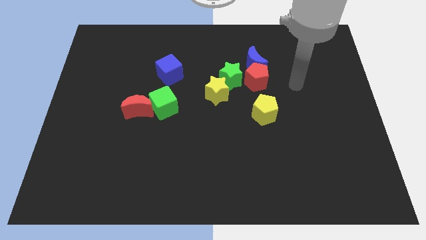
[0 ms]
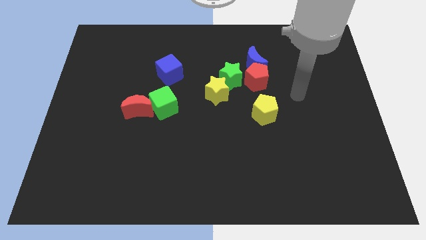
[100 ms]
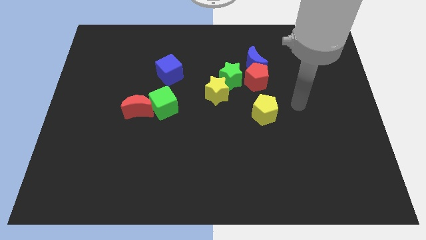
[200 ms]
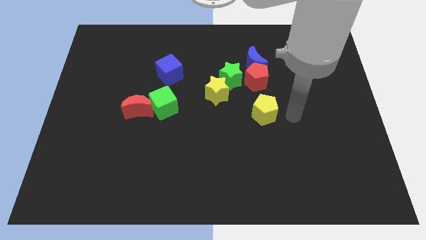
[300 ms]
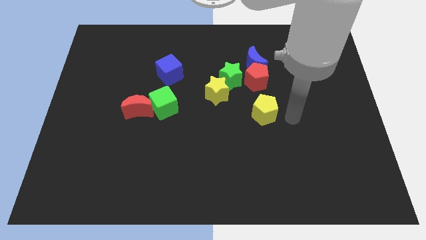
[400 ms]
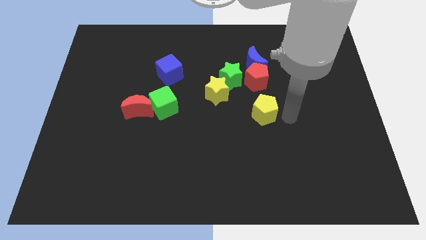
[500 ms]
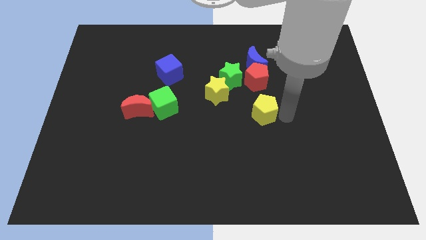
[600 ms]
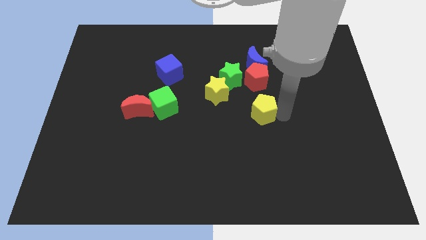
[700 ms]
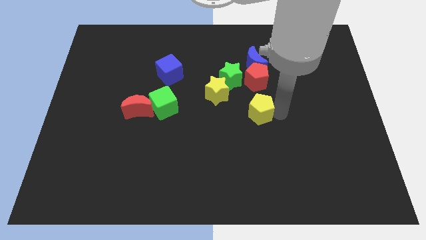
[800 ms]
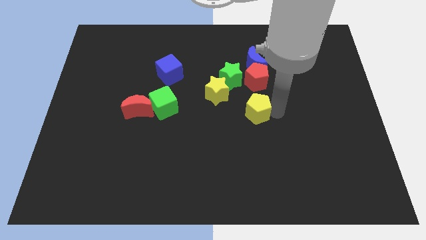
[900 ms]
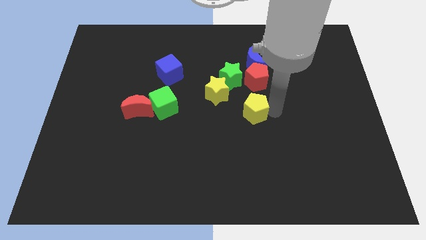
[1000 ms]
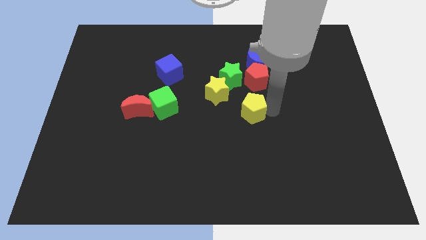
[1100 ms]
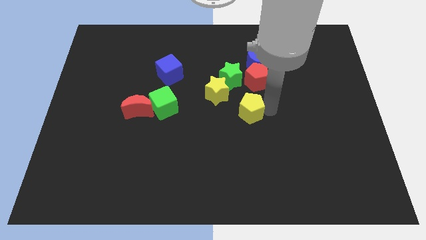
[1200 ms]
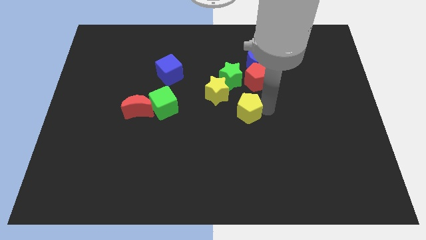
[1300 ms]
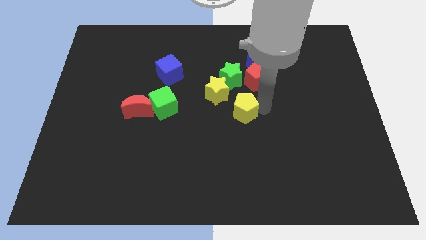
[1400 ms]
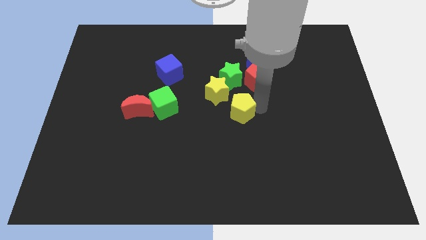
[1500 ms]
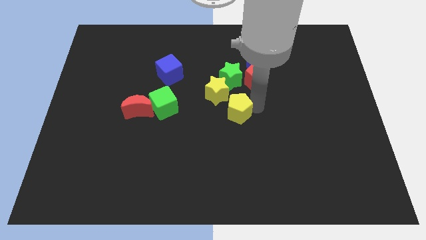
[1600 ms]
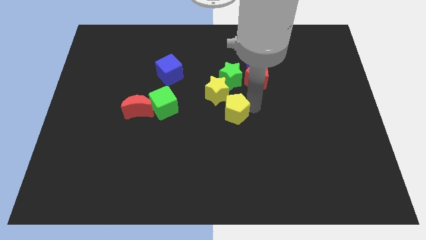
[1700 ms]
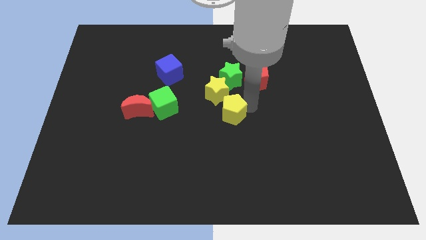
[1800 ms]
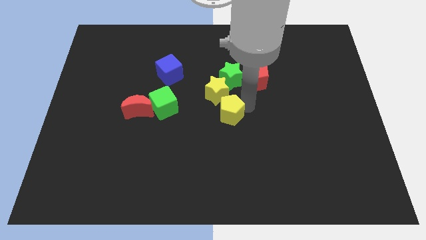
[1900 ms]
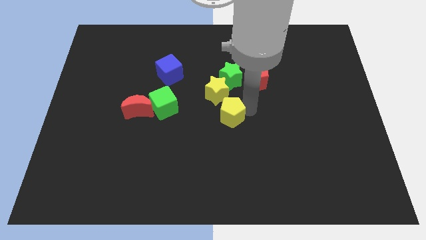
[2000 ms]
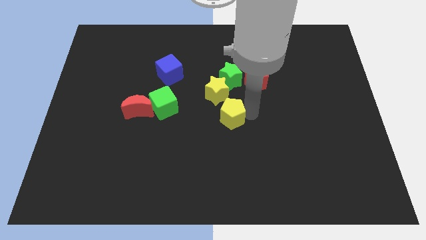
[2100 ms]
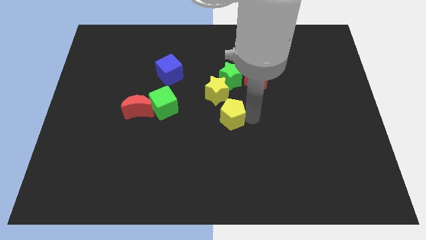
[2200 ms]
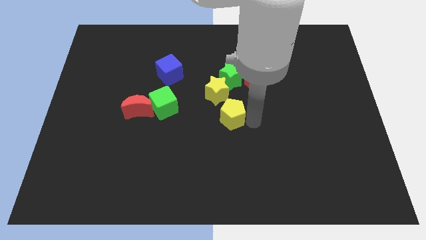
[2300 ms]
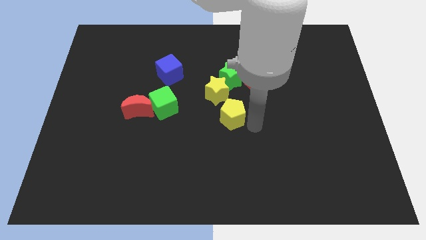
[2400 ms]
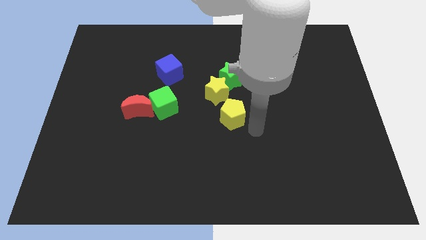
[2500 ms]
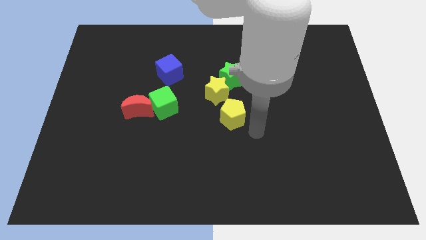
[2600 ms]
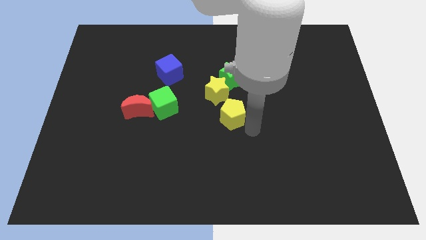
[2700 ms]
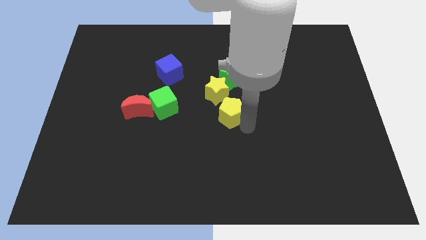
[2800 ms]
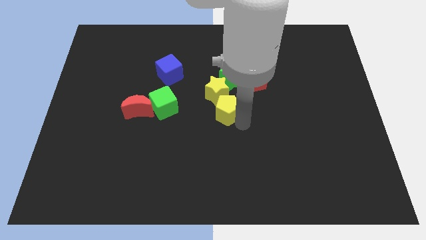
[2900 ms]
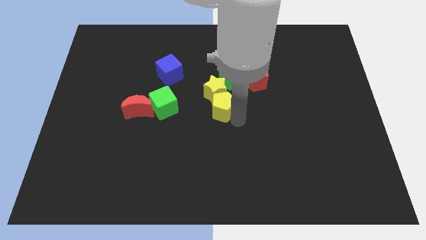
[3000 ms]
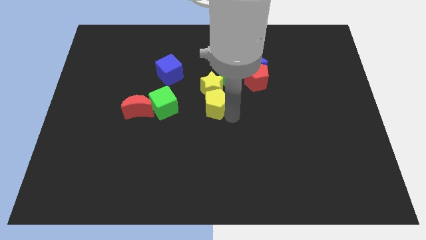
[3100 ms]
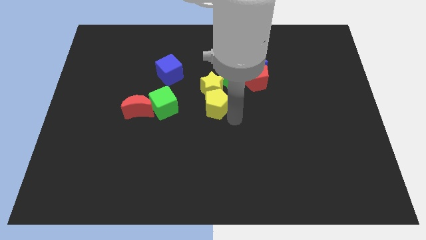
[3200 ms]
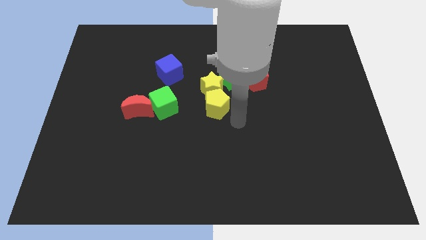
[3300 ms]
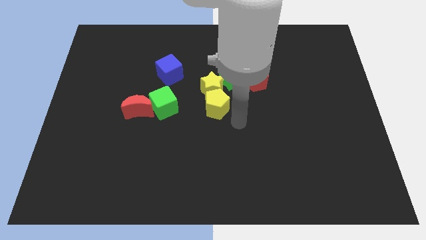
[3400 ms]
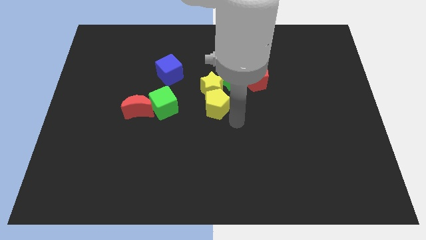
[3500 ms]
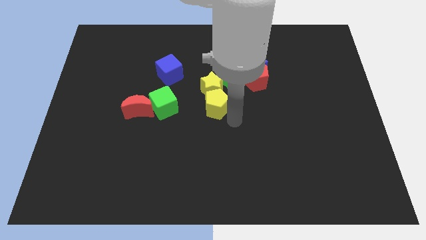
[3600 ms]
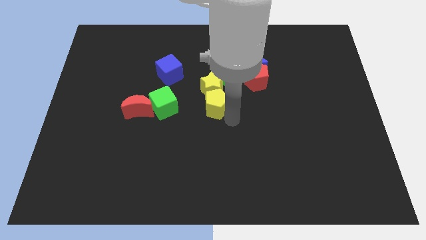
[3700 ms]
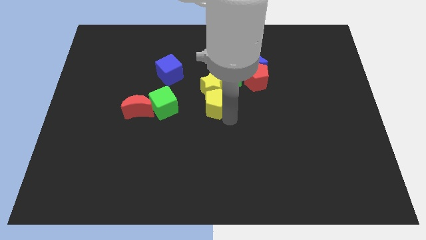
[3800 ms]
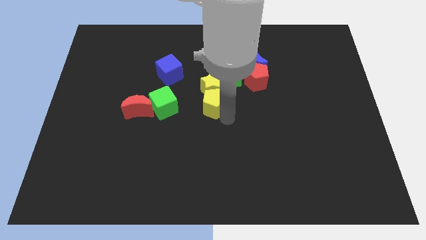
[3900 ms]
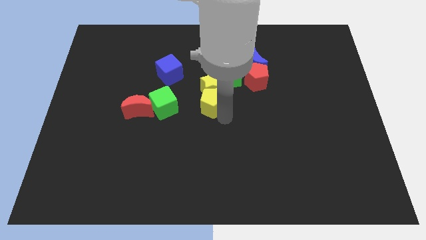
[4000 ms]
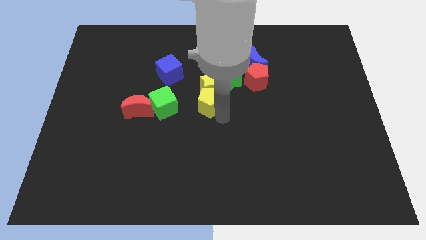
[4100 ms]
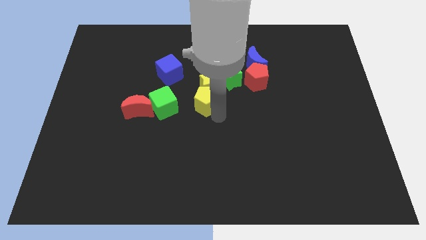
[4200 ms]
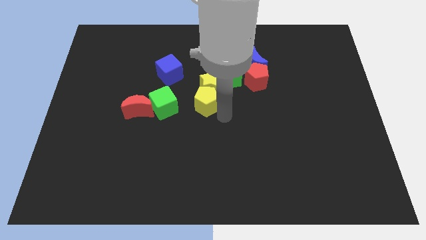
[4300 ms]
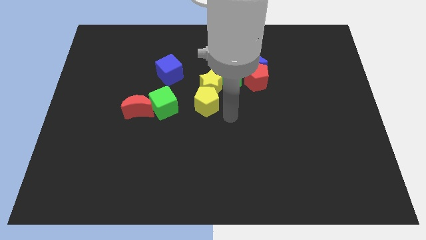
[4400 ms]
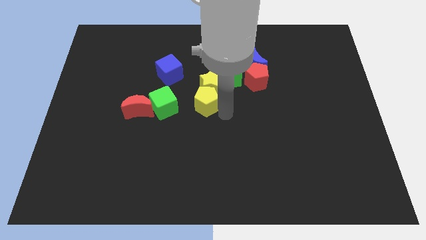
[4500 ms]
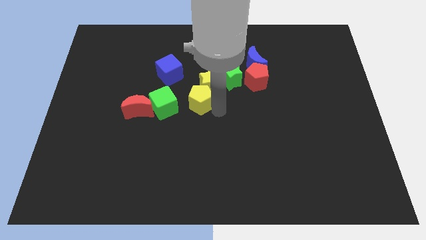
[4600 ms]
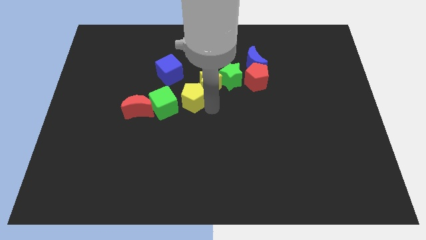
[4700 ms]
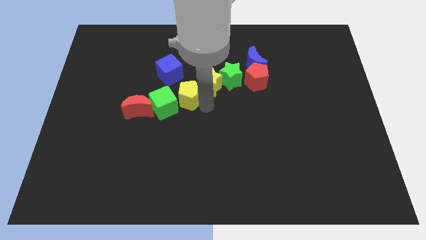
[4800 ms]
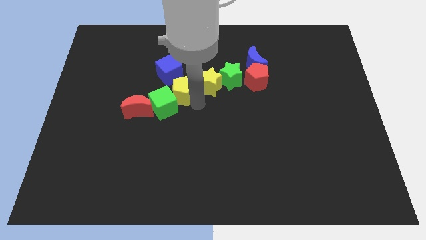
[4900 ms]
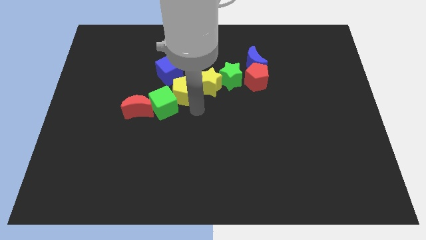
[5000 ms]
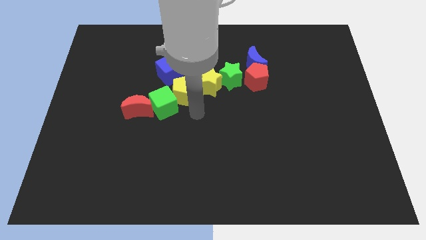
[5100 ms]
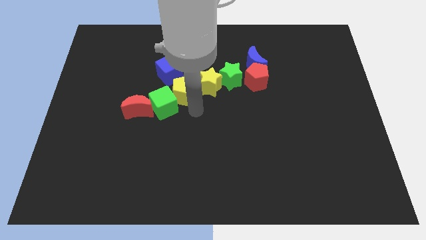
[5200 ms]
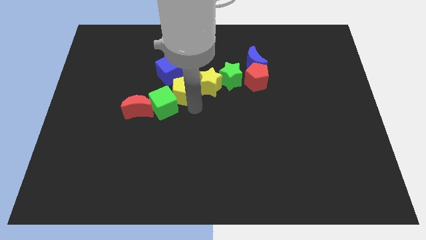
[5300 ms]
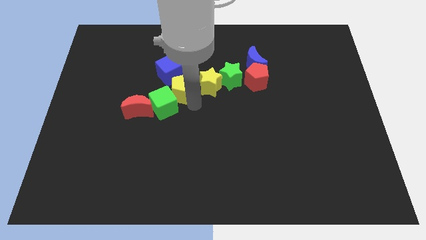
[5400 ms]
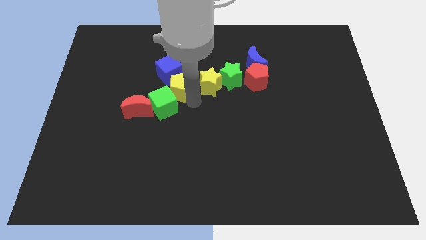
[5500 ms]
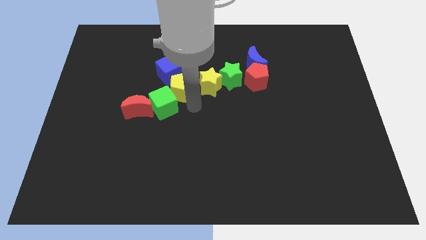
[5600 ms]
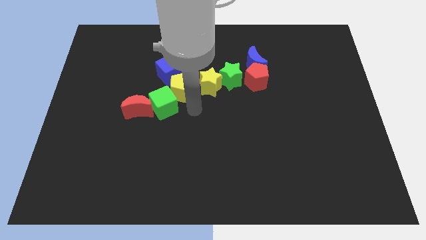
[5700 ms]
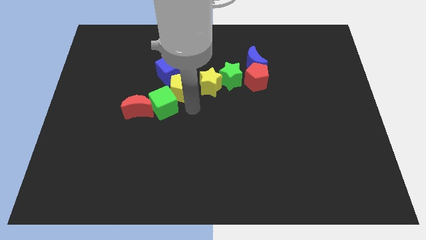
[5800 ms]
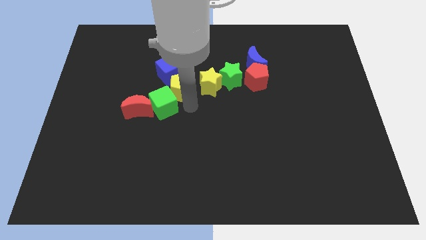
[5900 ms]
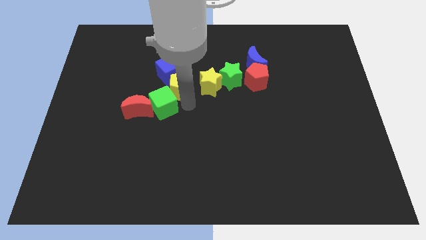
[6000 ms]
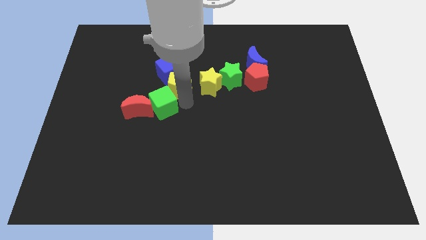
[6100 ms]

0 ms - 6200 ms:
push the yellow pentagon towards the blue cube

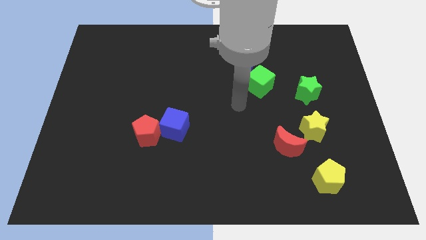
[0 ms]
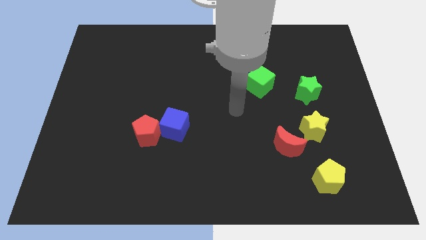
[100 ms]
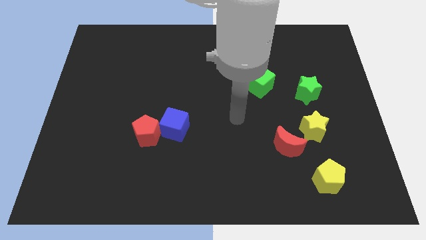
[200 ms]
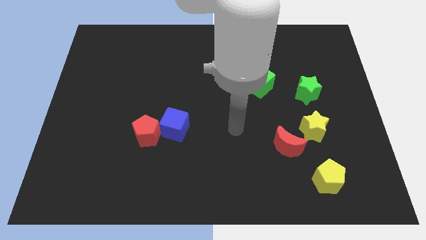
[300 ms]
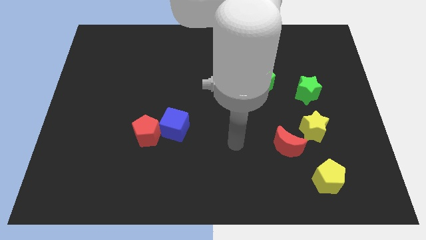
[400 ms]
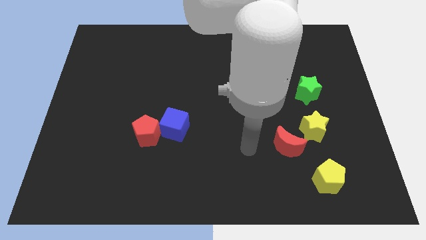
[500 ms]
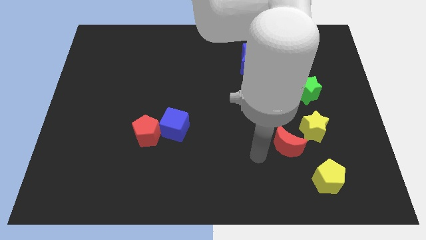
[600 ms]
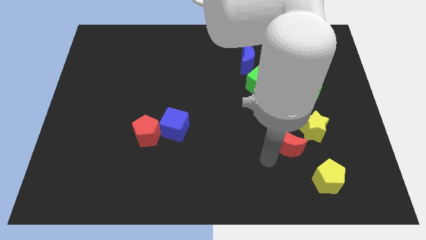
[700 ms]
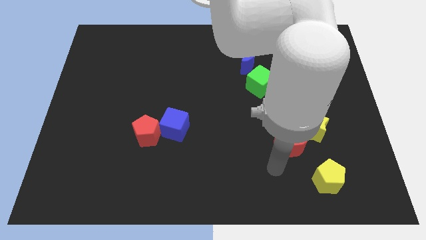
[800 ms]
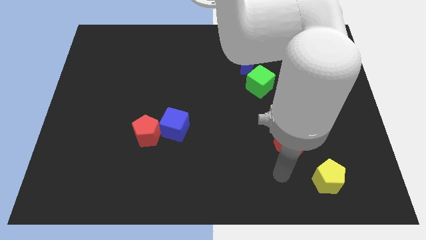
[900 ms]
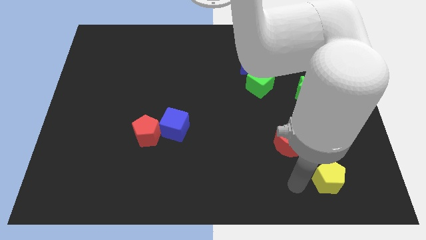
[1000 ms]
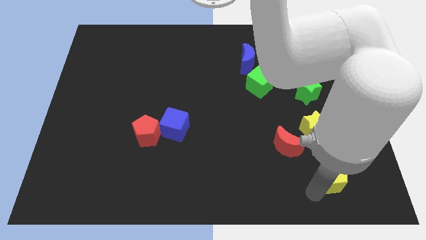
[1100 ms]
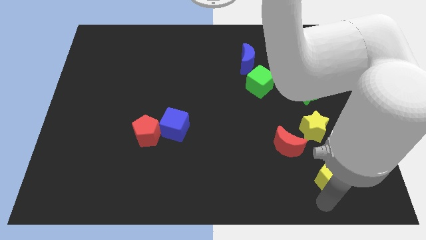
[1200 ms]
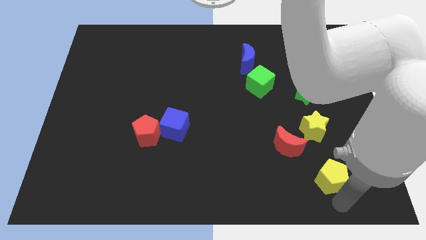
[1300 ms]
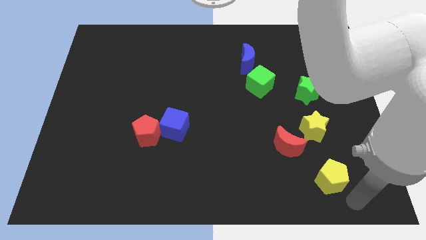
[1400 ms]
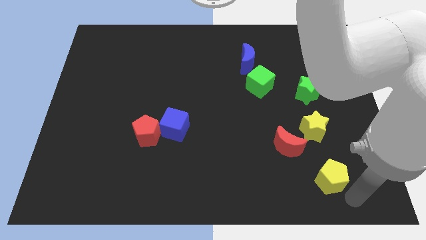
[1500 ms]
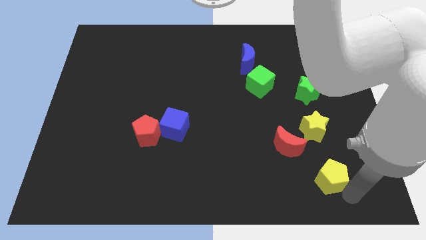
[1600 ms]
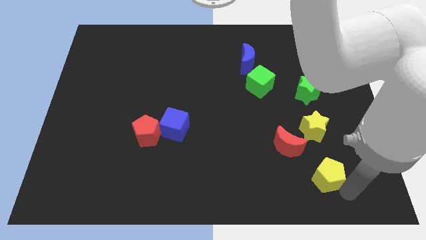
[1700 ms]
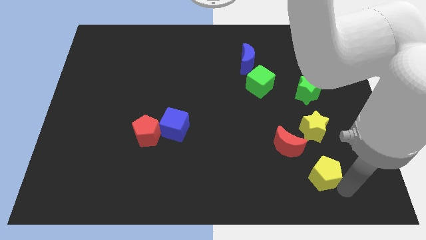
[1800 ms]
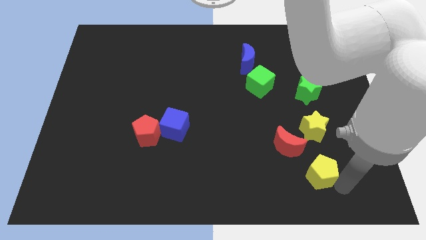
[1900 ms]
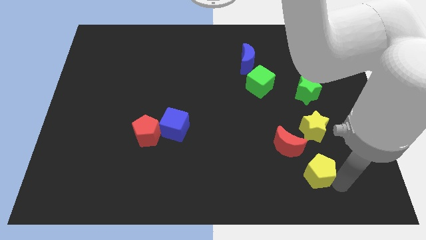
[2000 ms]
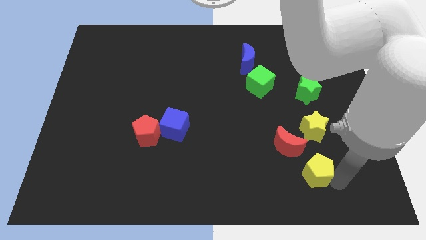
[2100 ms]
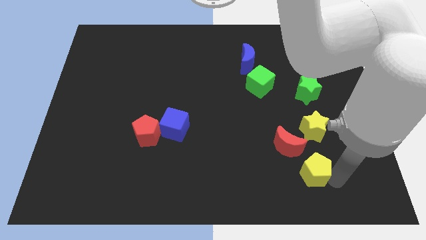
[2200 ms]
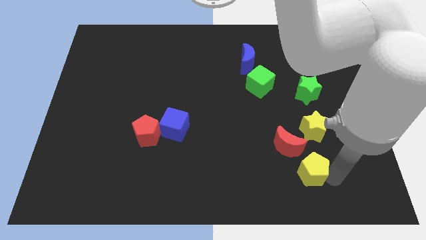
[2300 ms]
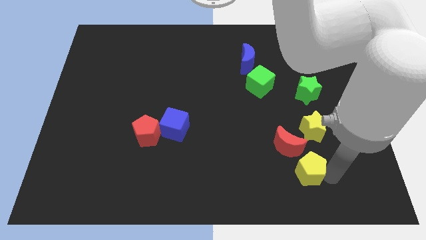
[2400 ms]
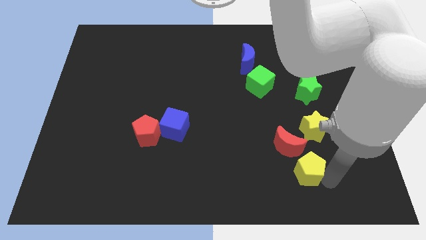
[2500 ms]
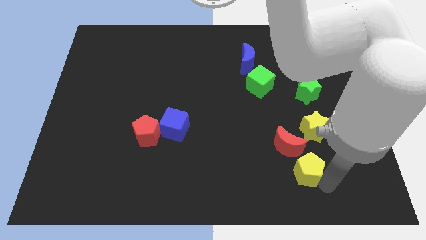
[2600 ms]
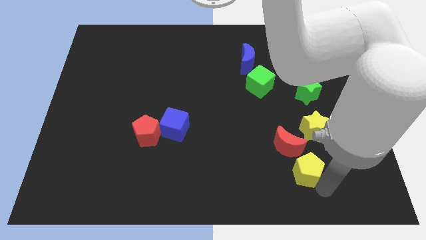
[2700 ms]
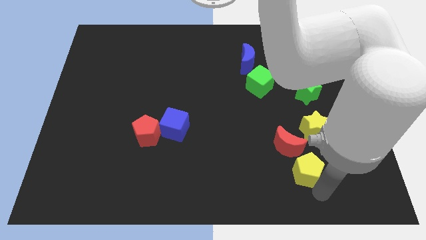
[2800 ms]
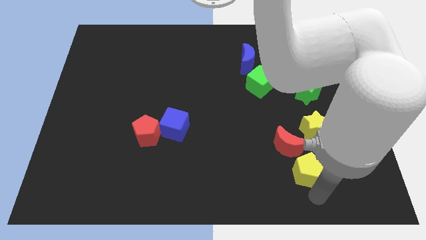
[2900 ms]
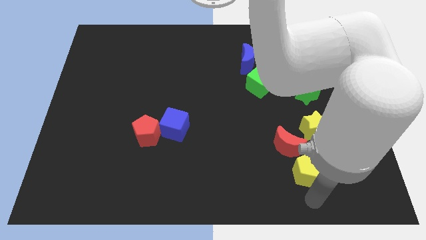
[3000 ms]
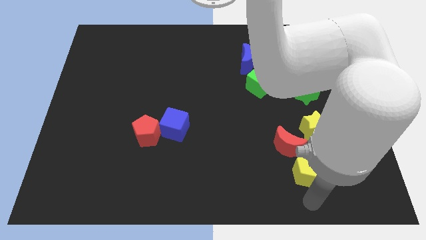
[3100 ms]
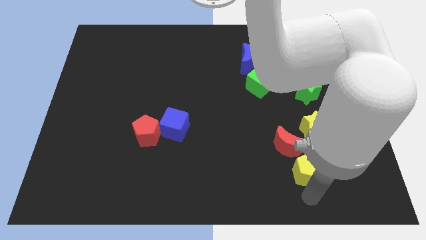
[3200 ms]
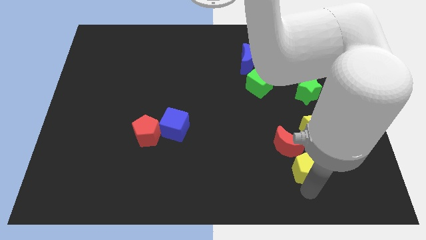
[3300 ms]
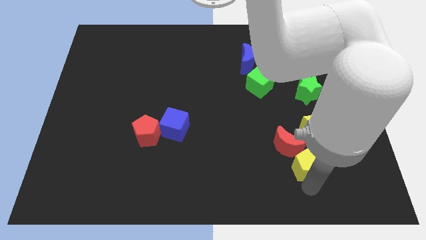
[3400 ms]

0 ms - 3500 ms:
put the yellow pentagon towards the red moon
